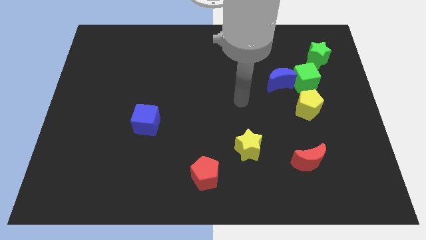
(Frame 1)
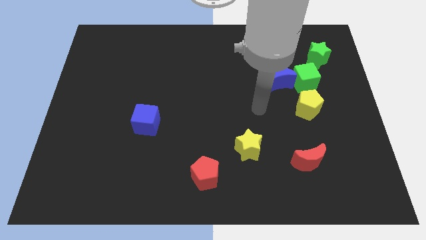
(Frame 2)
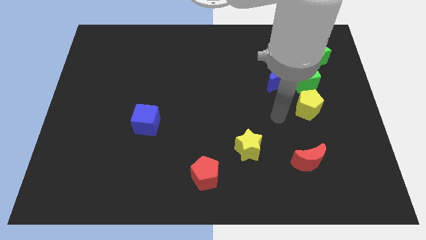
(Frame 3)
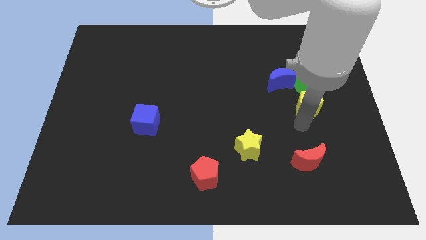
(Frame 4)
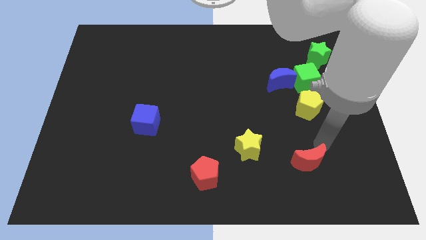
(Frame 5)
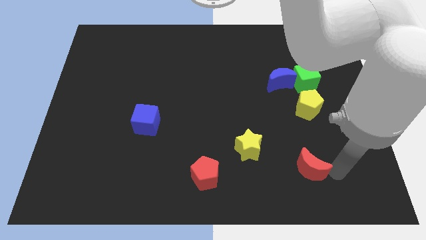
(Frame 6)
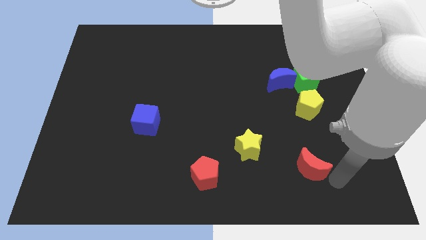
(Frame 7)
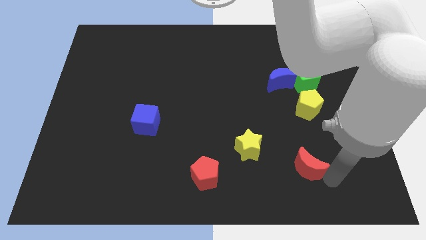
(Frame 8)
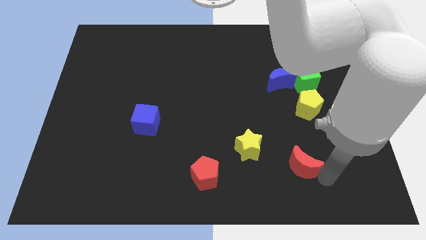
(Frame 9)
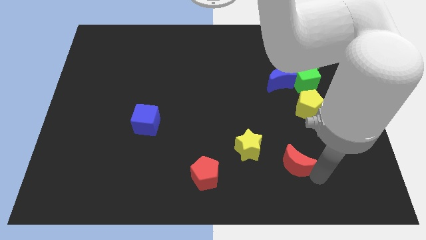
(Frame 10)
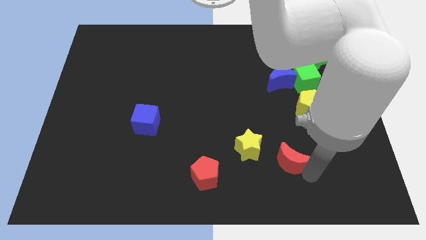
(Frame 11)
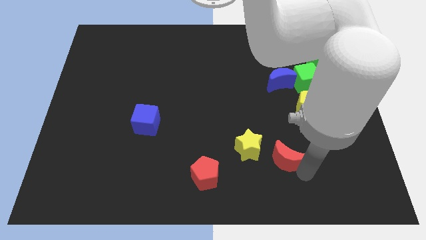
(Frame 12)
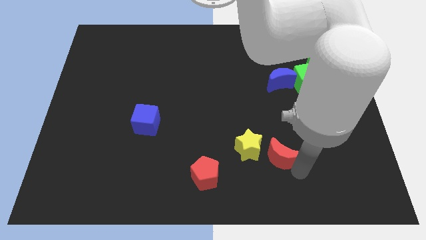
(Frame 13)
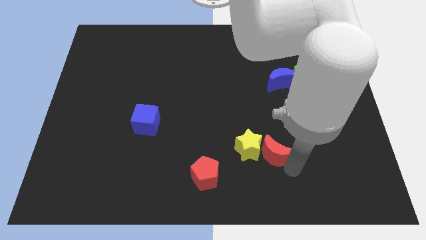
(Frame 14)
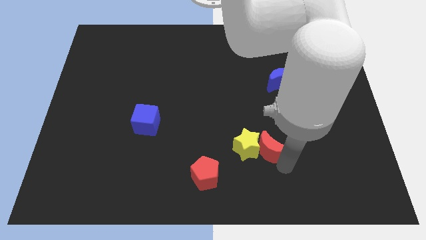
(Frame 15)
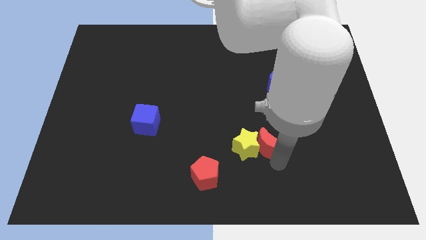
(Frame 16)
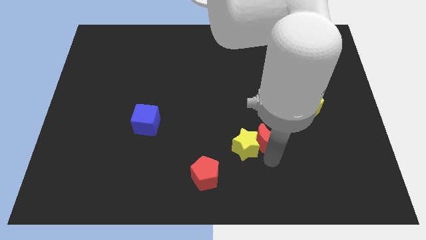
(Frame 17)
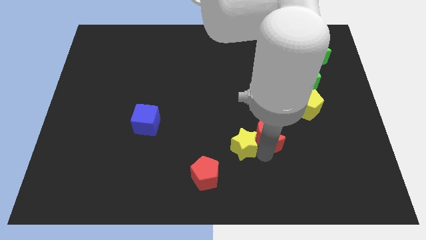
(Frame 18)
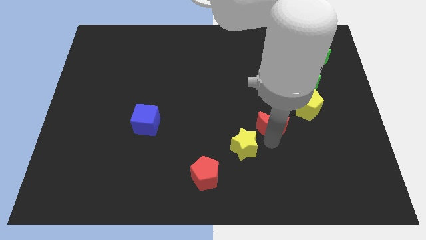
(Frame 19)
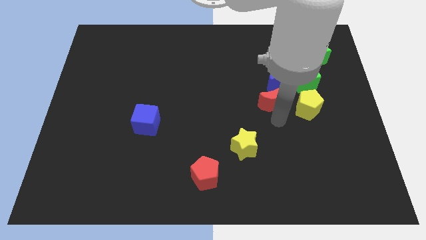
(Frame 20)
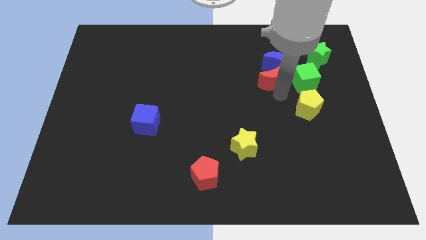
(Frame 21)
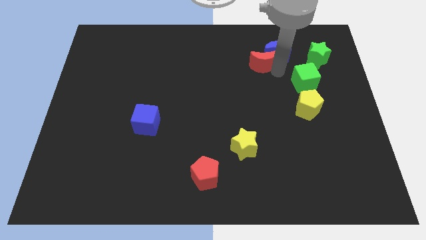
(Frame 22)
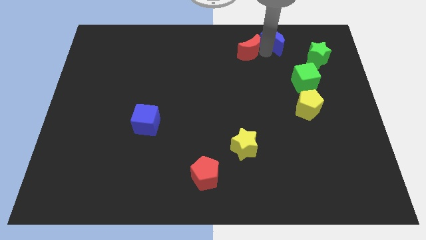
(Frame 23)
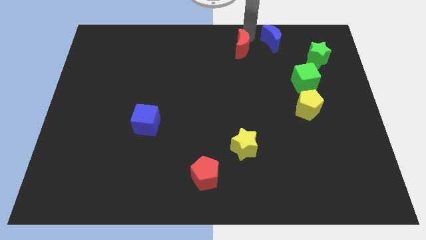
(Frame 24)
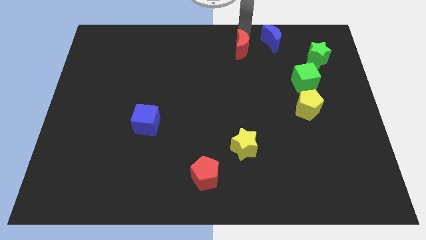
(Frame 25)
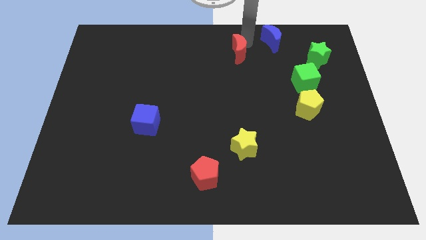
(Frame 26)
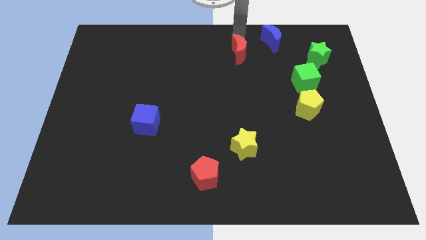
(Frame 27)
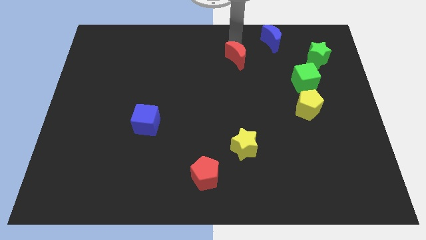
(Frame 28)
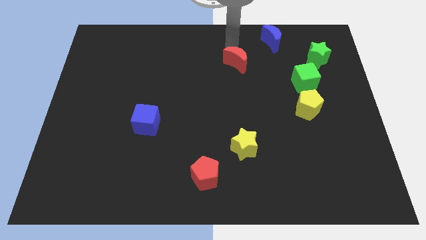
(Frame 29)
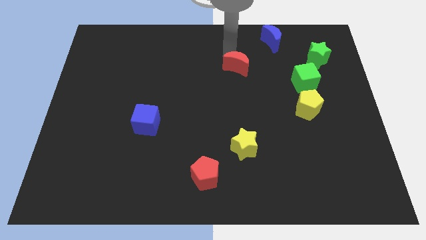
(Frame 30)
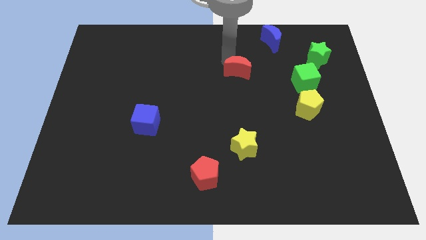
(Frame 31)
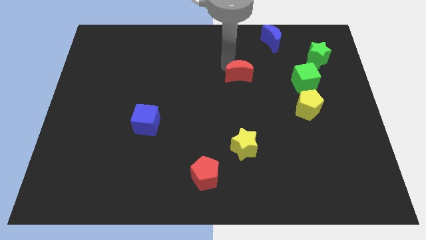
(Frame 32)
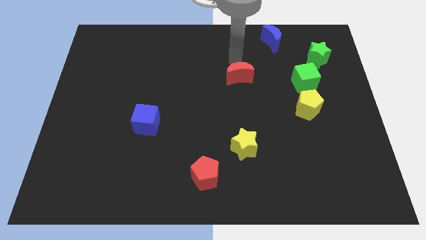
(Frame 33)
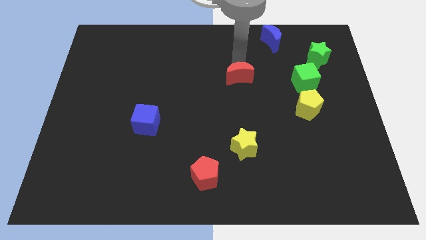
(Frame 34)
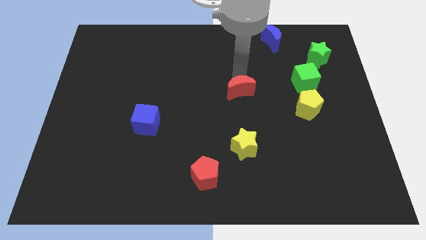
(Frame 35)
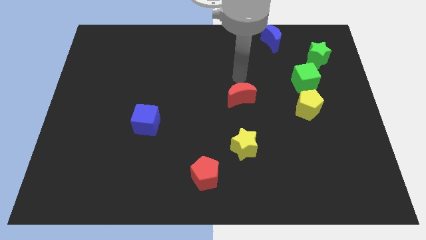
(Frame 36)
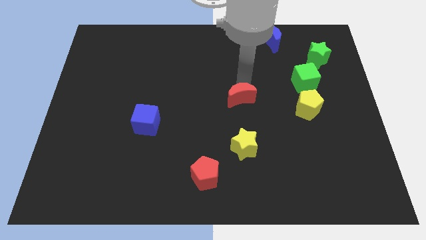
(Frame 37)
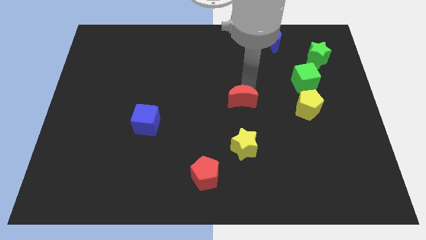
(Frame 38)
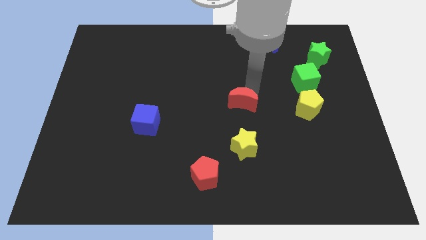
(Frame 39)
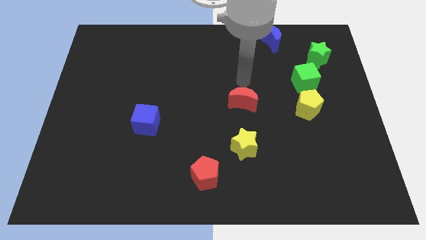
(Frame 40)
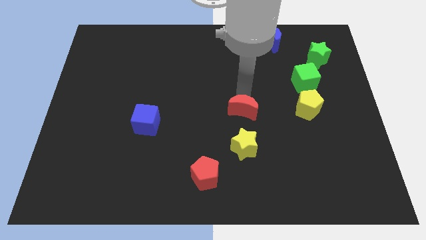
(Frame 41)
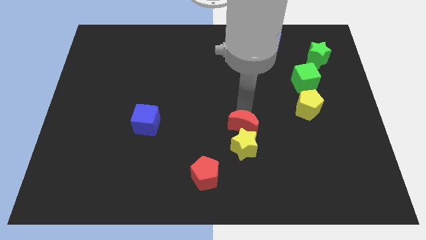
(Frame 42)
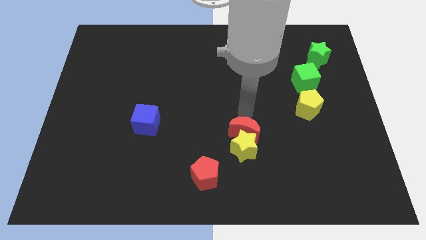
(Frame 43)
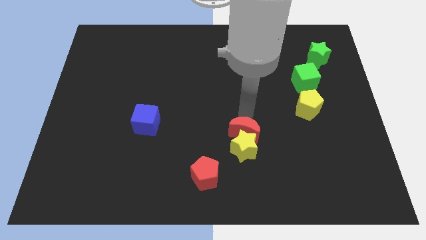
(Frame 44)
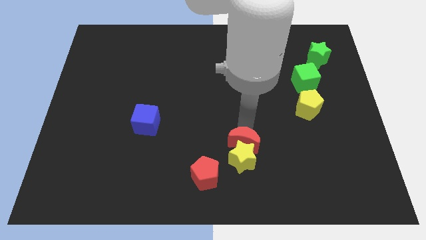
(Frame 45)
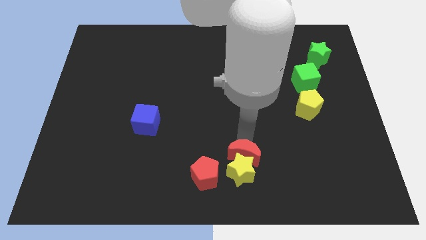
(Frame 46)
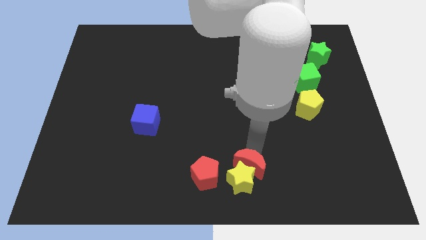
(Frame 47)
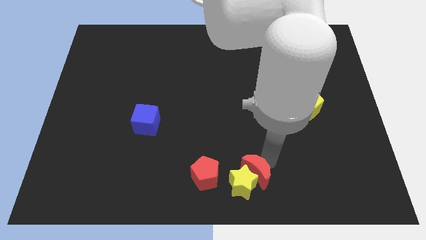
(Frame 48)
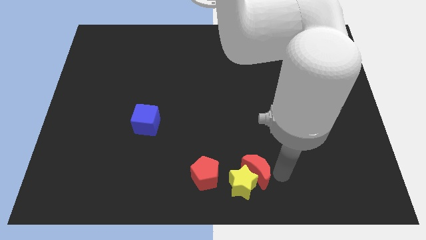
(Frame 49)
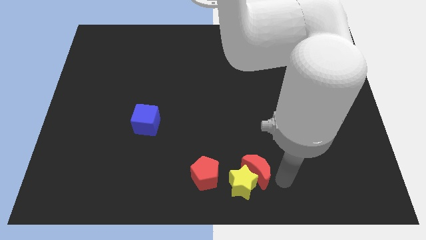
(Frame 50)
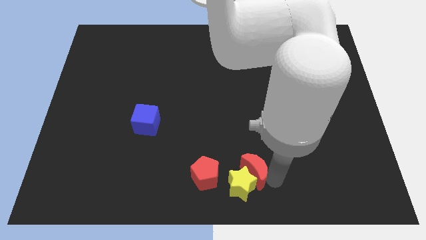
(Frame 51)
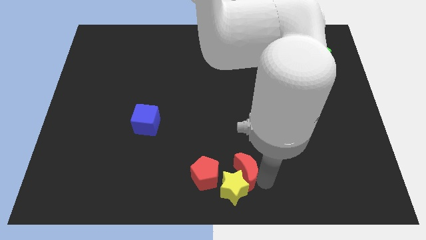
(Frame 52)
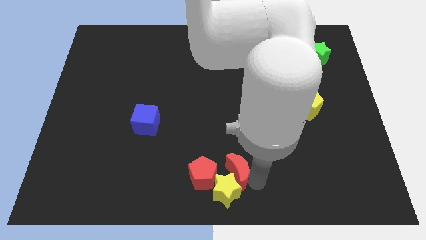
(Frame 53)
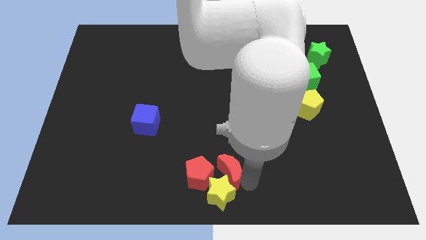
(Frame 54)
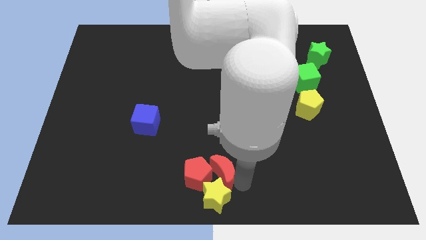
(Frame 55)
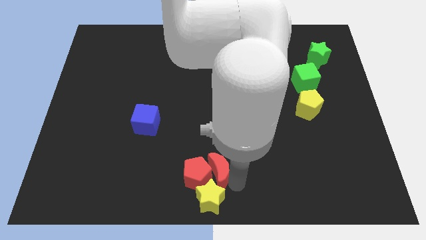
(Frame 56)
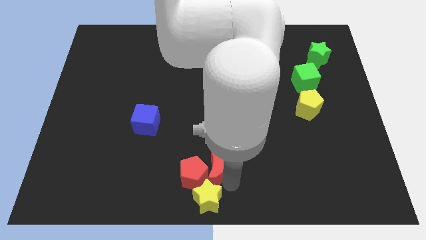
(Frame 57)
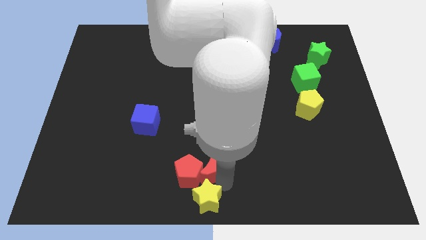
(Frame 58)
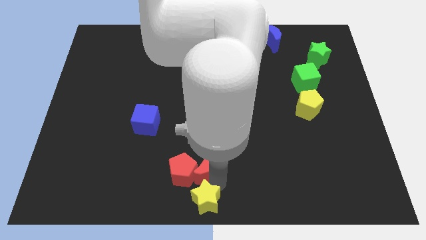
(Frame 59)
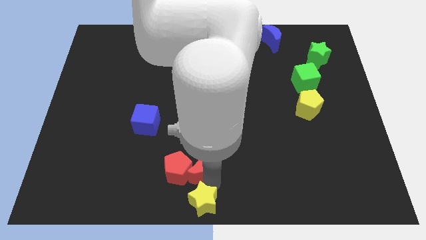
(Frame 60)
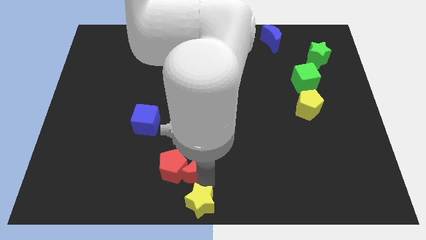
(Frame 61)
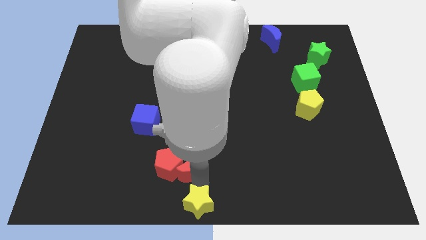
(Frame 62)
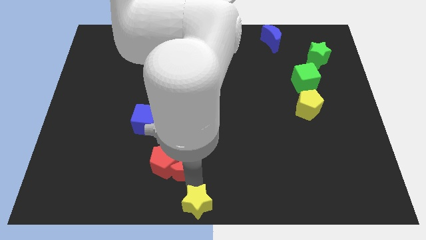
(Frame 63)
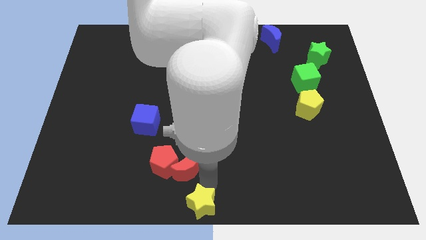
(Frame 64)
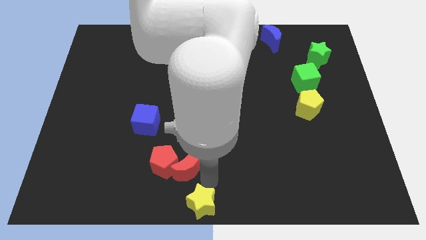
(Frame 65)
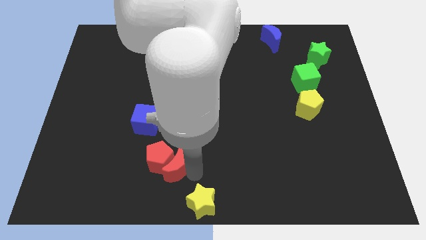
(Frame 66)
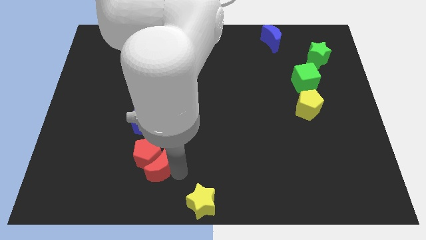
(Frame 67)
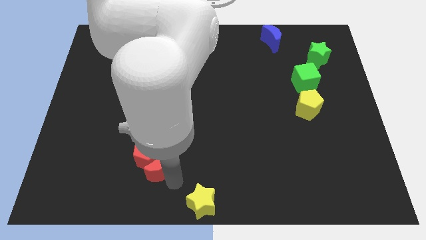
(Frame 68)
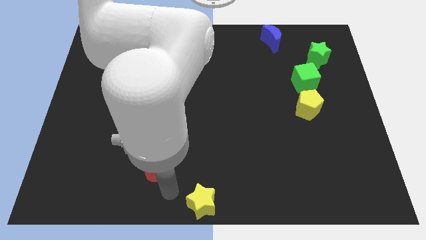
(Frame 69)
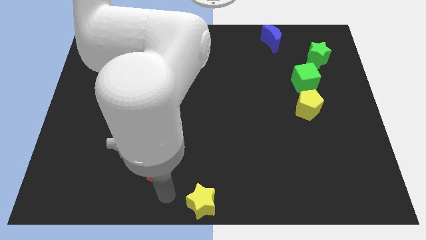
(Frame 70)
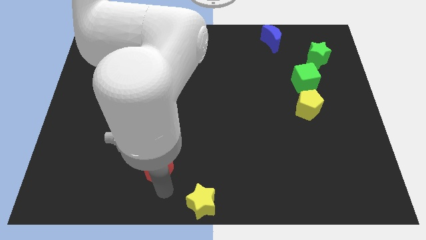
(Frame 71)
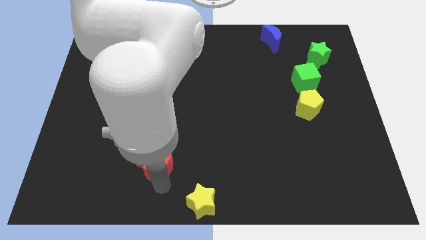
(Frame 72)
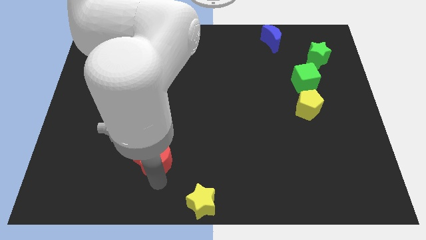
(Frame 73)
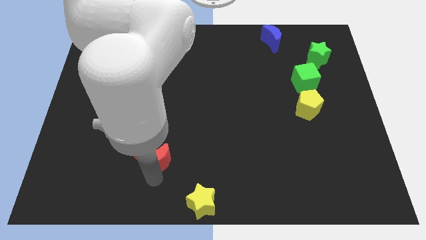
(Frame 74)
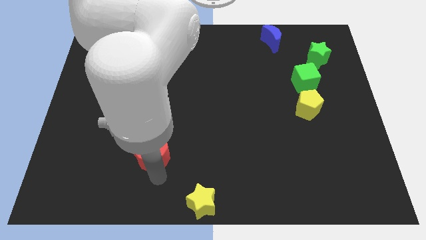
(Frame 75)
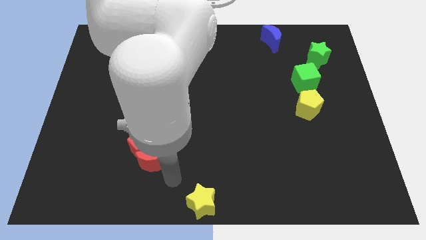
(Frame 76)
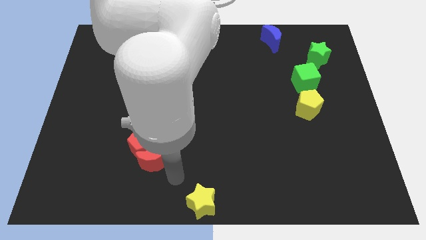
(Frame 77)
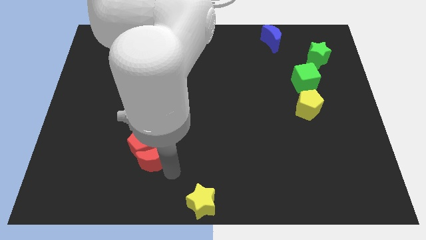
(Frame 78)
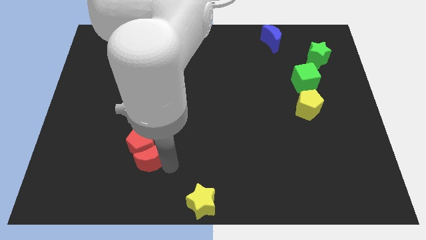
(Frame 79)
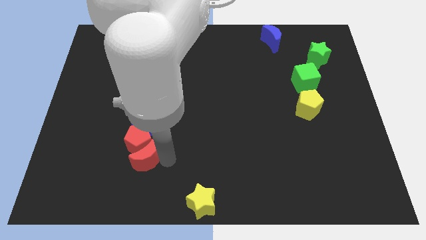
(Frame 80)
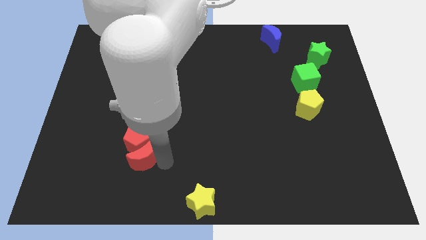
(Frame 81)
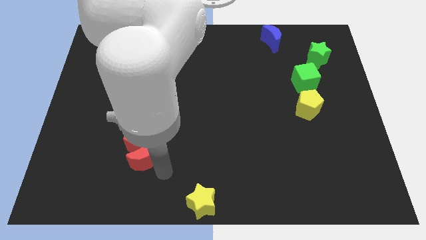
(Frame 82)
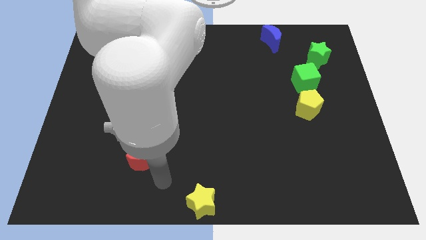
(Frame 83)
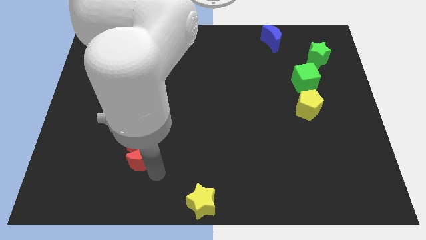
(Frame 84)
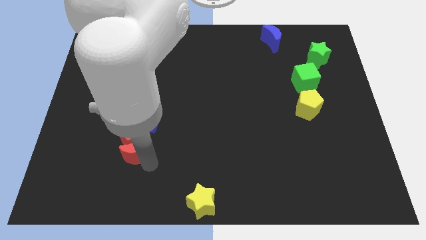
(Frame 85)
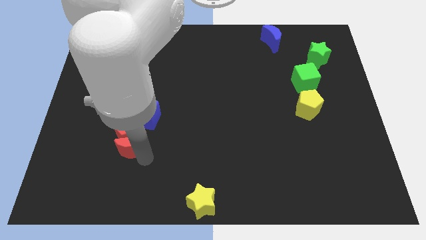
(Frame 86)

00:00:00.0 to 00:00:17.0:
push the red moon diagonally down and to the left of the blue cube
